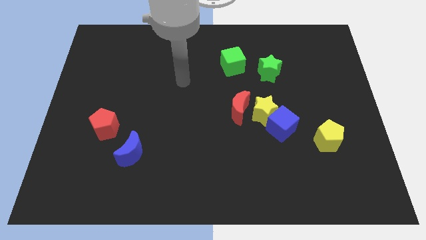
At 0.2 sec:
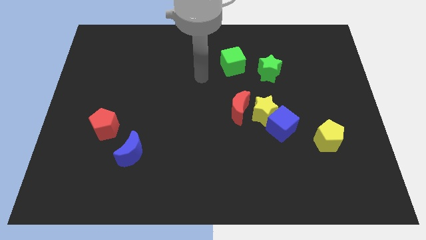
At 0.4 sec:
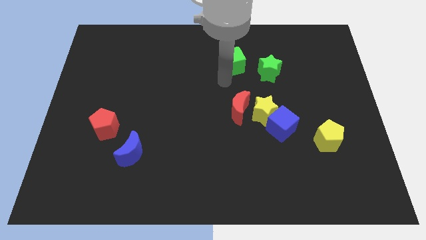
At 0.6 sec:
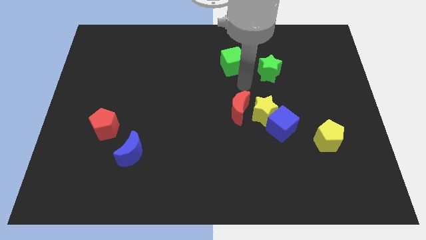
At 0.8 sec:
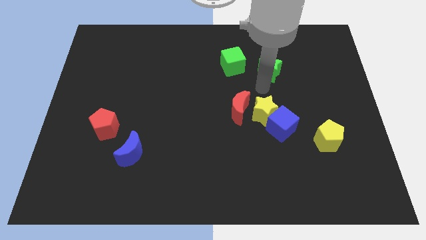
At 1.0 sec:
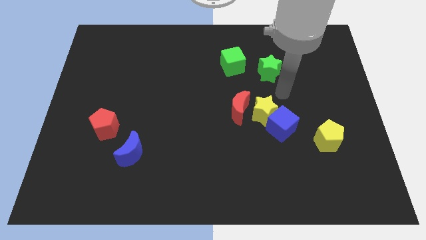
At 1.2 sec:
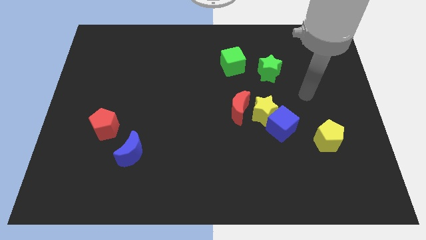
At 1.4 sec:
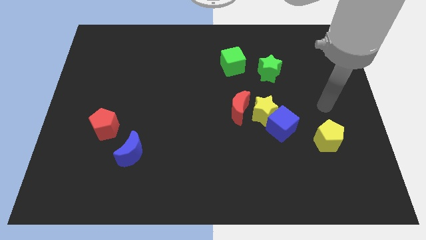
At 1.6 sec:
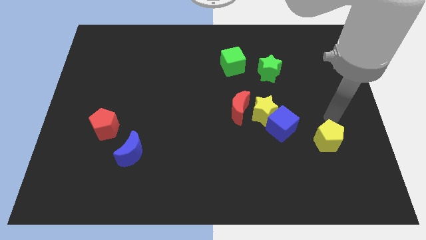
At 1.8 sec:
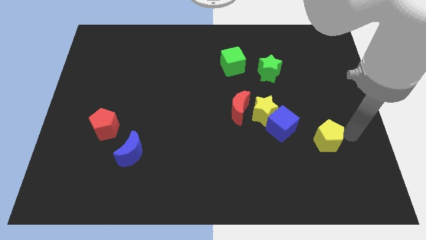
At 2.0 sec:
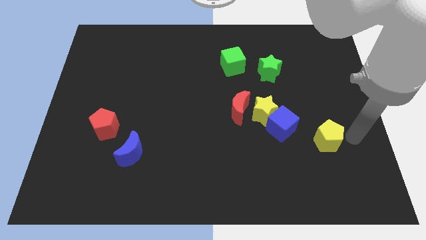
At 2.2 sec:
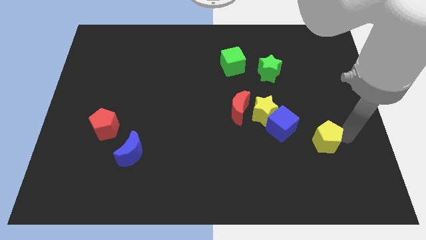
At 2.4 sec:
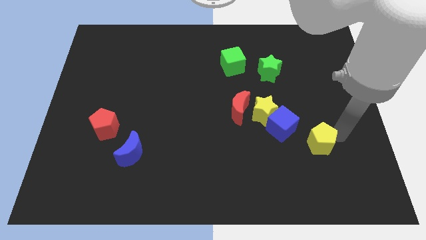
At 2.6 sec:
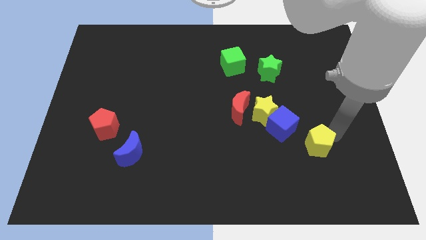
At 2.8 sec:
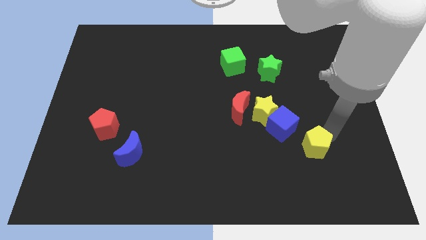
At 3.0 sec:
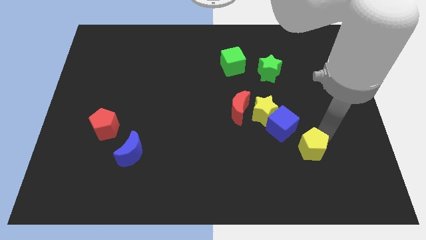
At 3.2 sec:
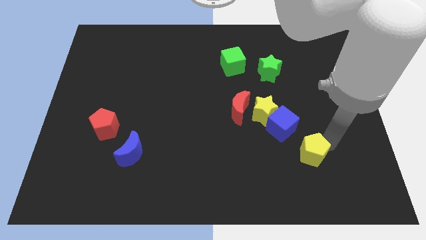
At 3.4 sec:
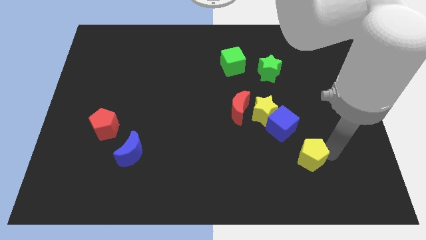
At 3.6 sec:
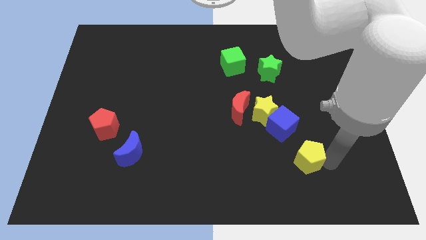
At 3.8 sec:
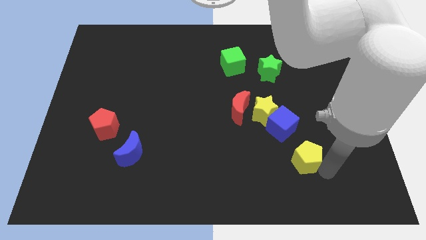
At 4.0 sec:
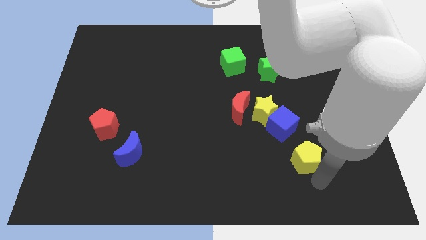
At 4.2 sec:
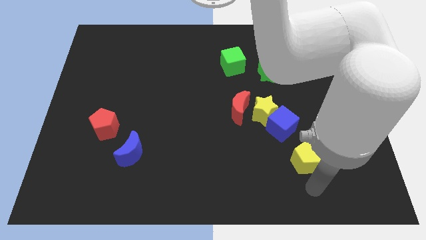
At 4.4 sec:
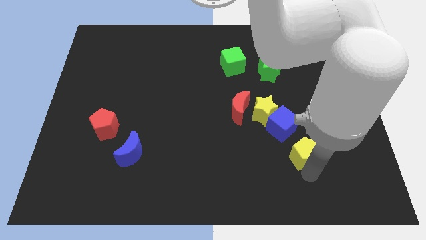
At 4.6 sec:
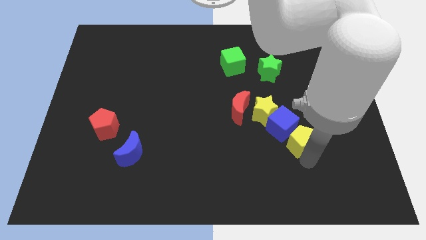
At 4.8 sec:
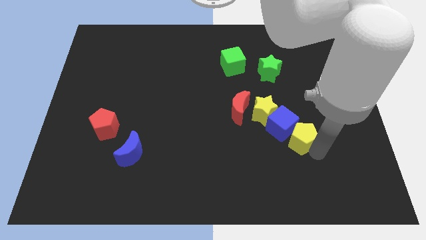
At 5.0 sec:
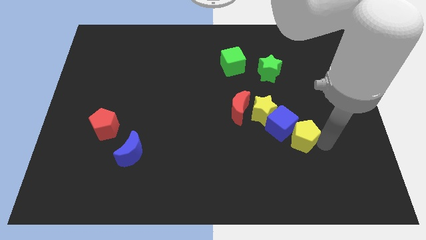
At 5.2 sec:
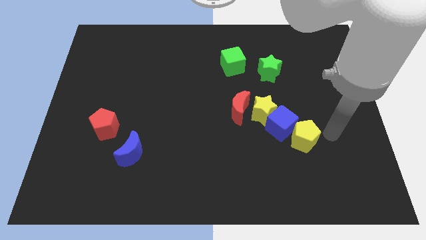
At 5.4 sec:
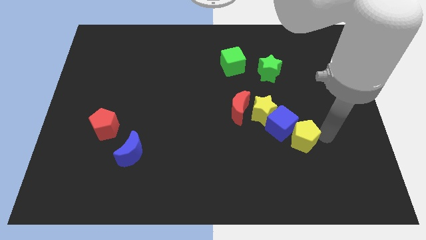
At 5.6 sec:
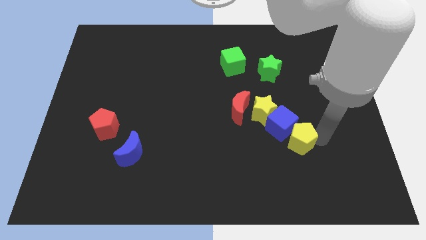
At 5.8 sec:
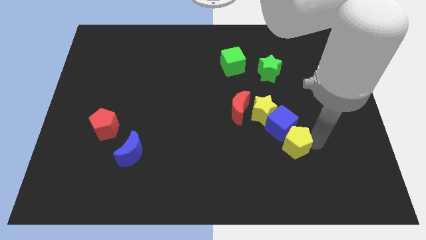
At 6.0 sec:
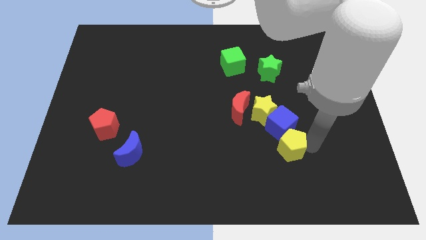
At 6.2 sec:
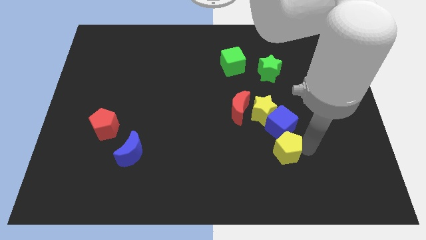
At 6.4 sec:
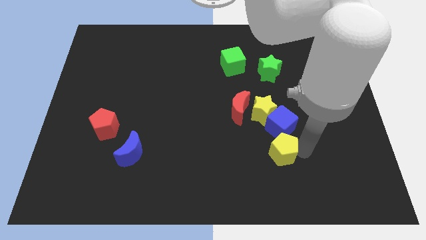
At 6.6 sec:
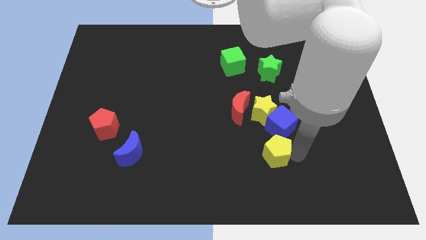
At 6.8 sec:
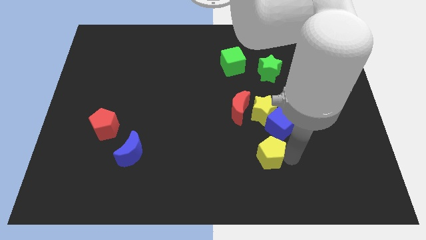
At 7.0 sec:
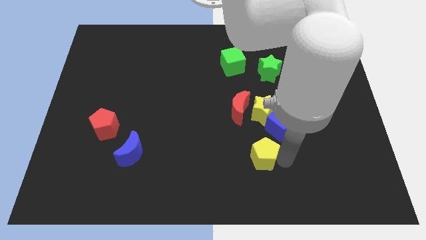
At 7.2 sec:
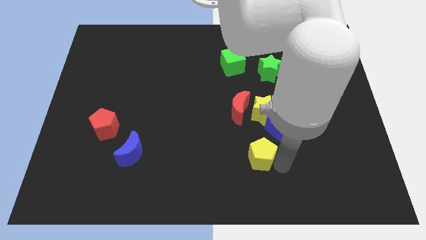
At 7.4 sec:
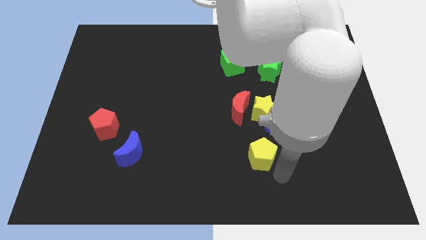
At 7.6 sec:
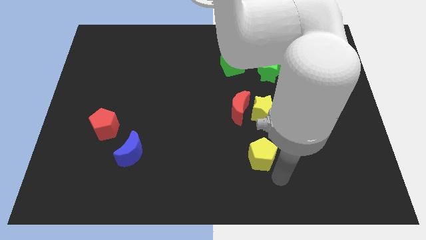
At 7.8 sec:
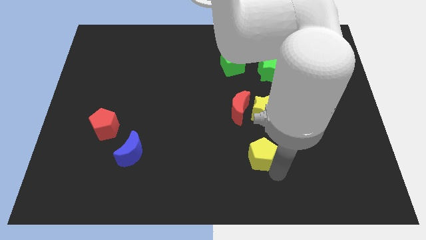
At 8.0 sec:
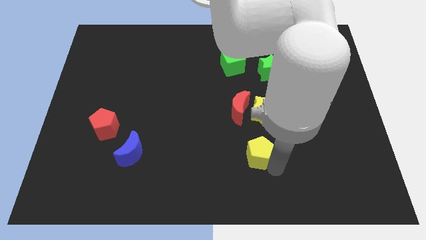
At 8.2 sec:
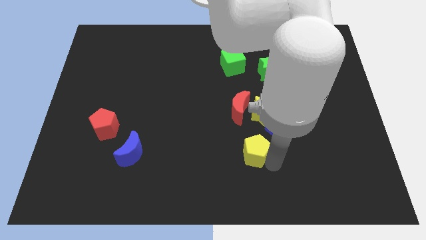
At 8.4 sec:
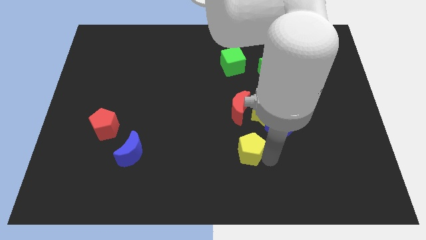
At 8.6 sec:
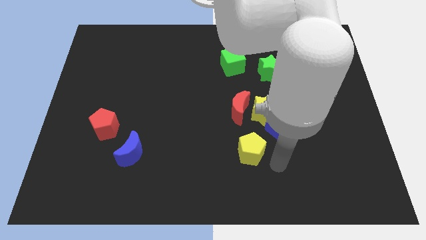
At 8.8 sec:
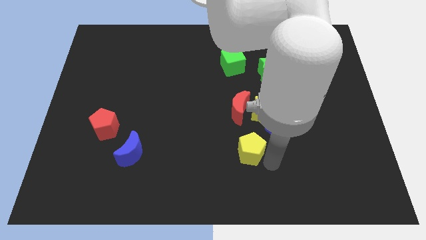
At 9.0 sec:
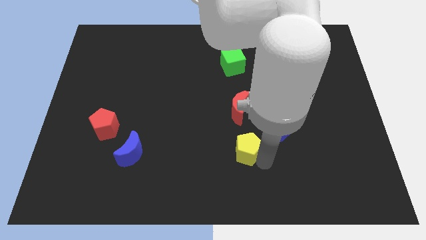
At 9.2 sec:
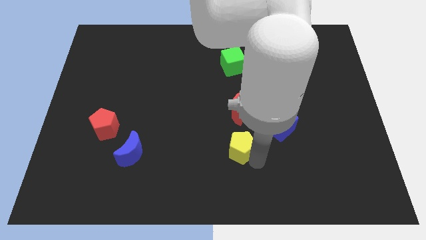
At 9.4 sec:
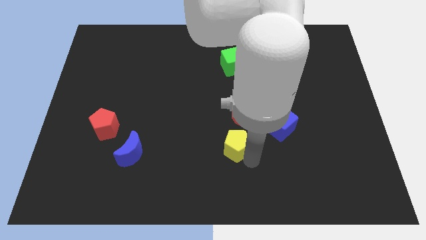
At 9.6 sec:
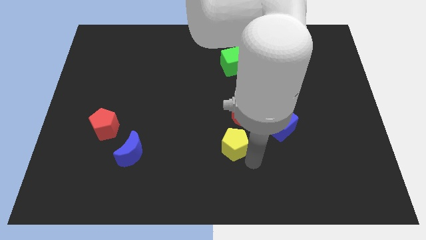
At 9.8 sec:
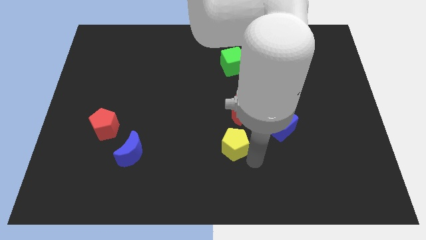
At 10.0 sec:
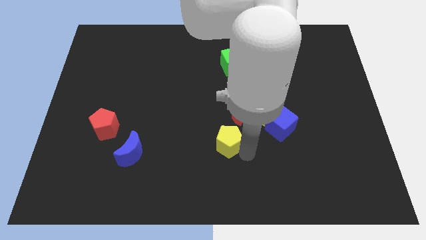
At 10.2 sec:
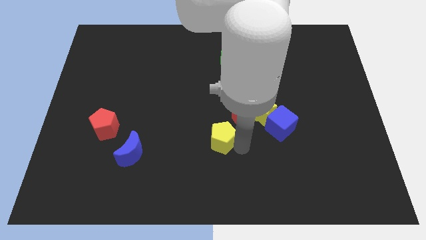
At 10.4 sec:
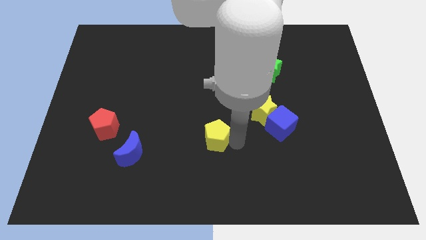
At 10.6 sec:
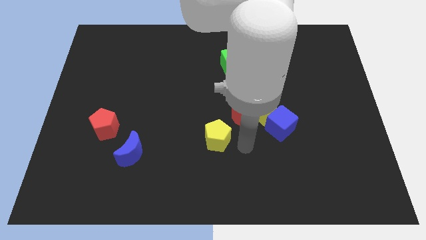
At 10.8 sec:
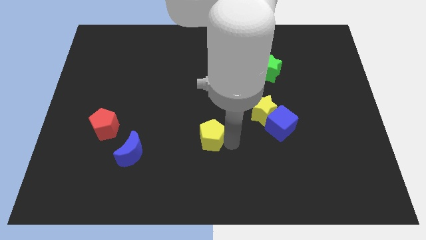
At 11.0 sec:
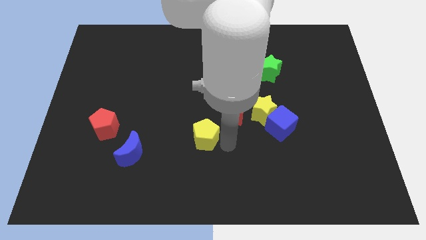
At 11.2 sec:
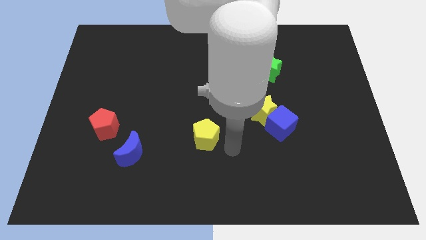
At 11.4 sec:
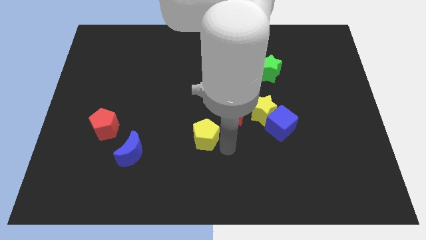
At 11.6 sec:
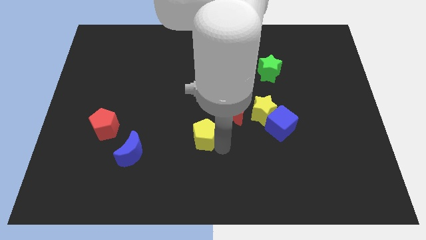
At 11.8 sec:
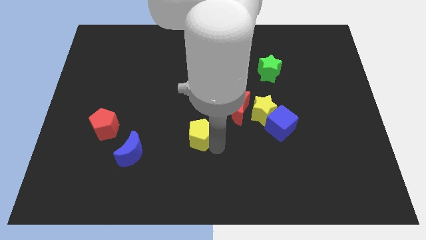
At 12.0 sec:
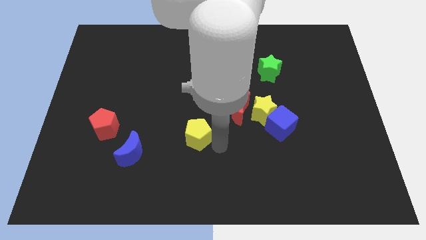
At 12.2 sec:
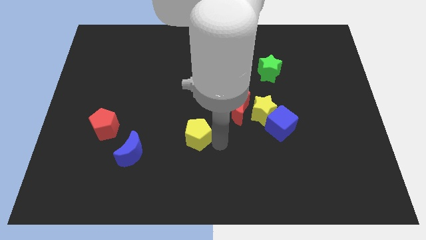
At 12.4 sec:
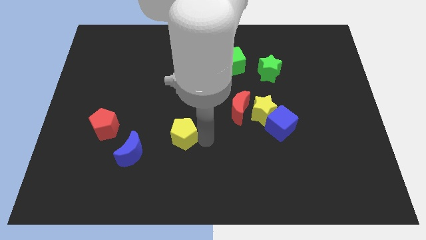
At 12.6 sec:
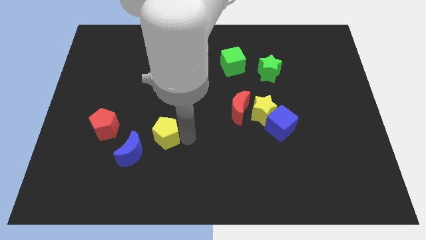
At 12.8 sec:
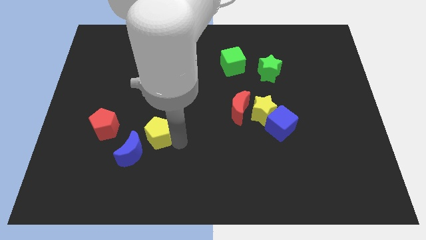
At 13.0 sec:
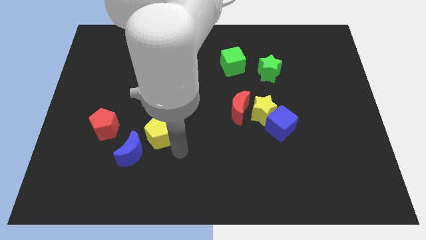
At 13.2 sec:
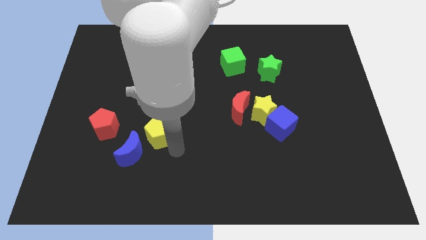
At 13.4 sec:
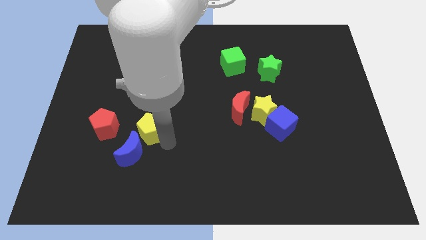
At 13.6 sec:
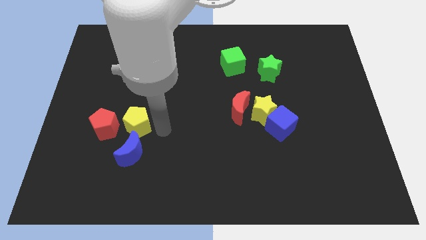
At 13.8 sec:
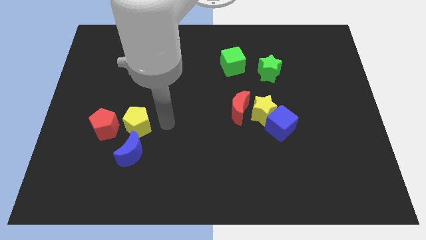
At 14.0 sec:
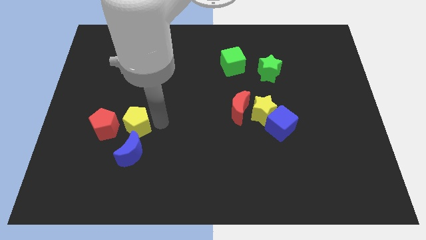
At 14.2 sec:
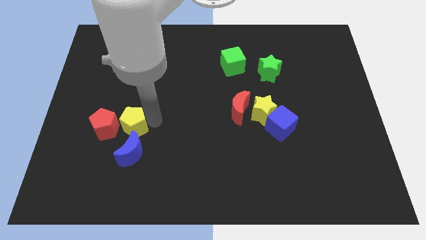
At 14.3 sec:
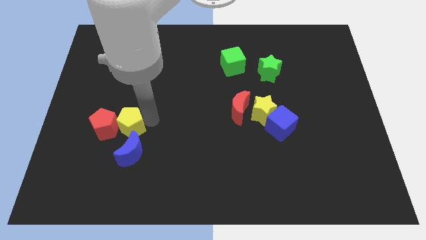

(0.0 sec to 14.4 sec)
push the yellow pentagon to the red pentagon
